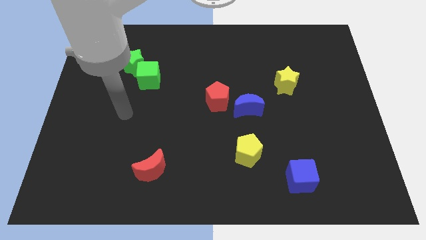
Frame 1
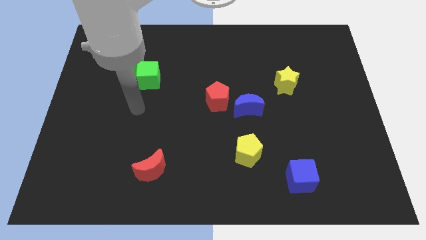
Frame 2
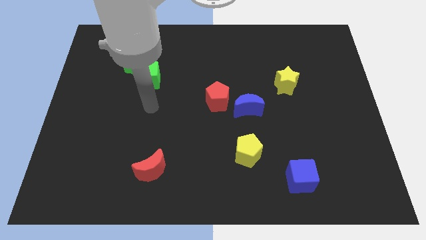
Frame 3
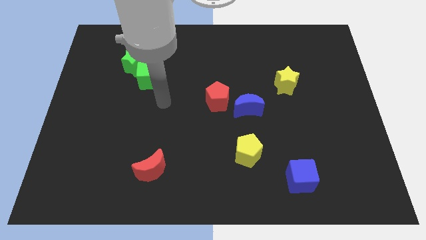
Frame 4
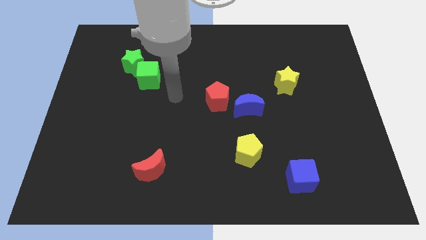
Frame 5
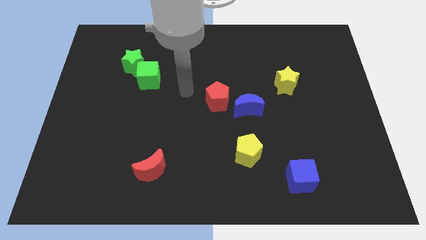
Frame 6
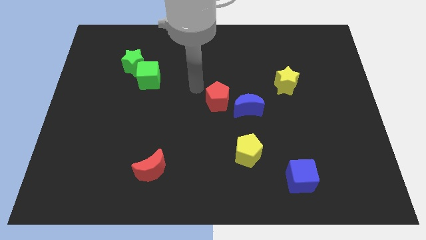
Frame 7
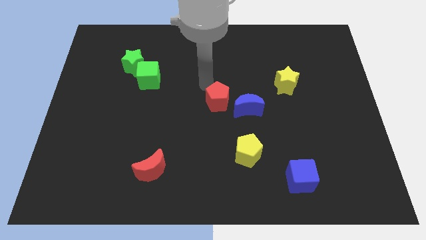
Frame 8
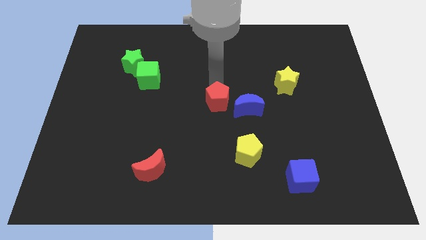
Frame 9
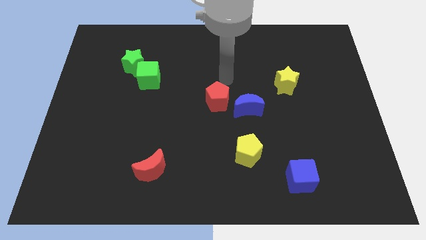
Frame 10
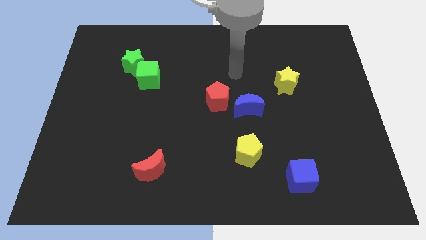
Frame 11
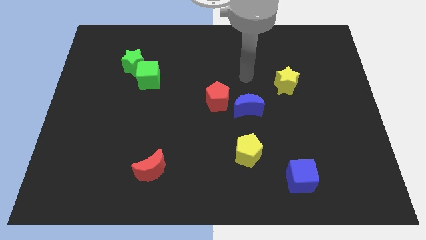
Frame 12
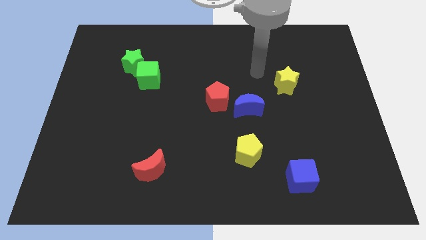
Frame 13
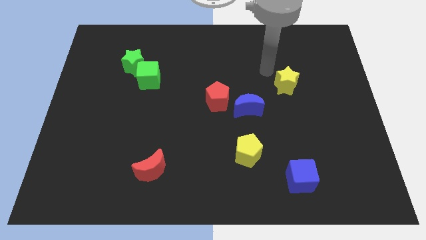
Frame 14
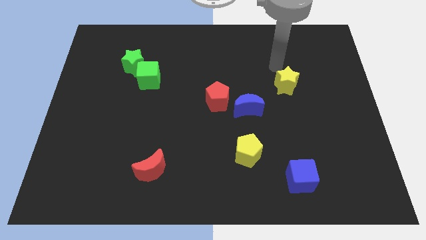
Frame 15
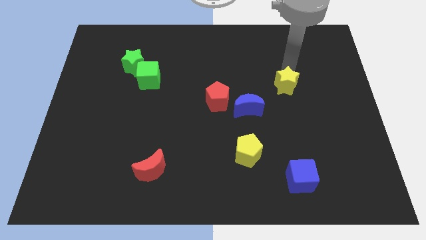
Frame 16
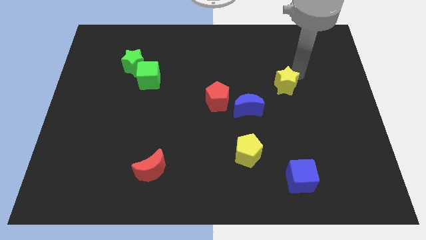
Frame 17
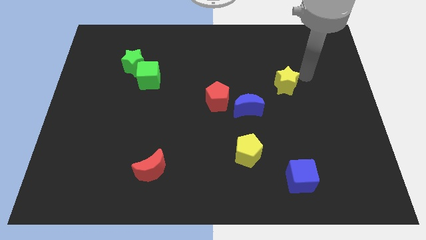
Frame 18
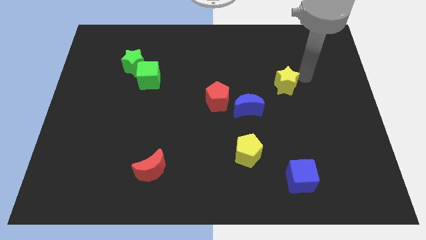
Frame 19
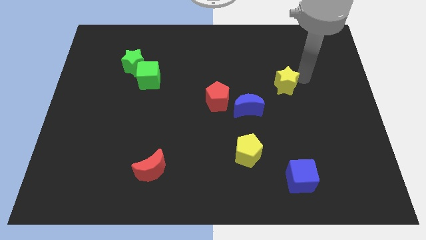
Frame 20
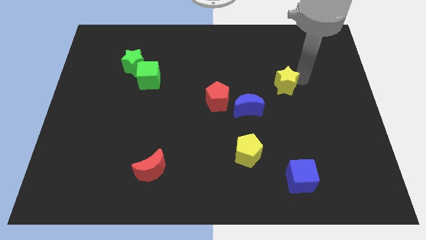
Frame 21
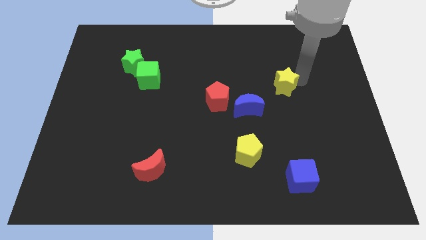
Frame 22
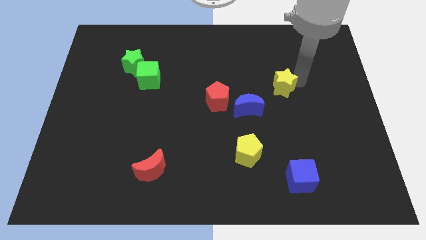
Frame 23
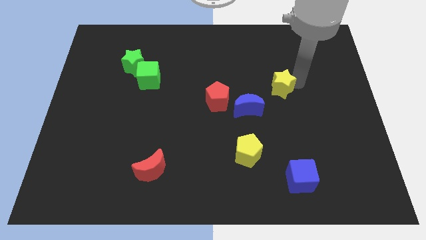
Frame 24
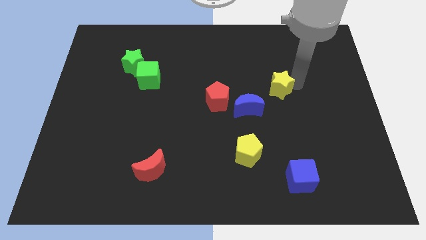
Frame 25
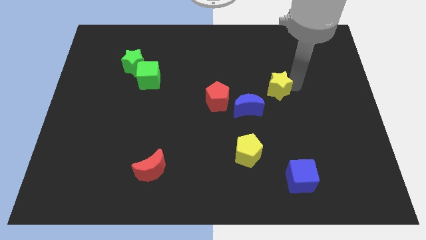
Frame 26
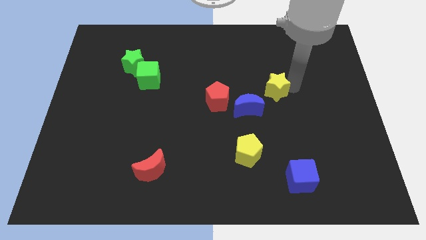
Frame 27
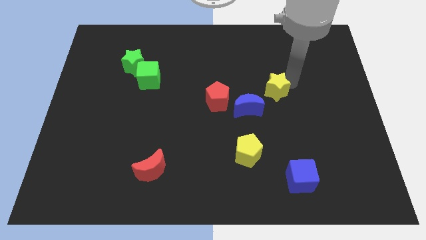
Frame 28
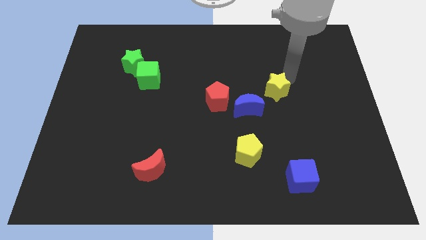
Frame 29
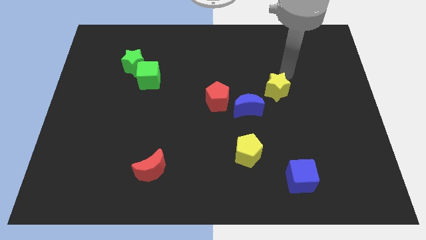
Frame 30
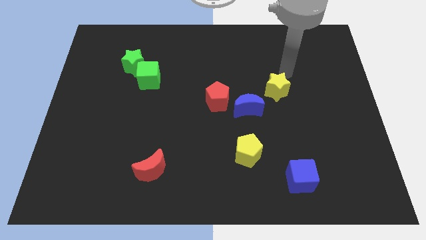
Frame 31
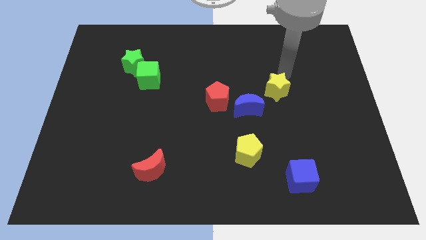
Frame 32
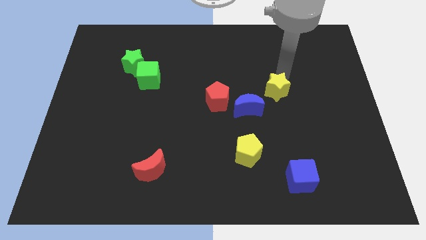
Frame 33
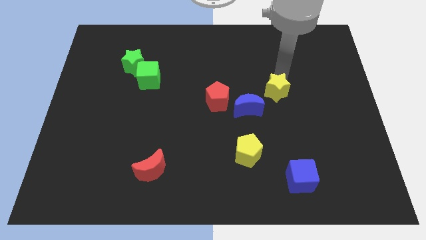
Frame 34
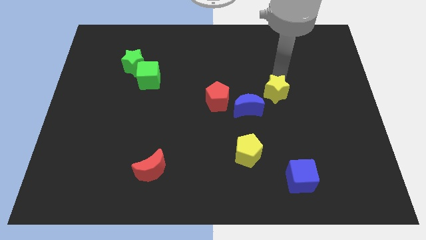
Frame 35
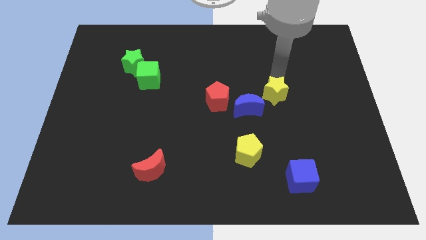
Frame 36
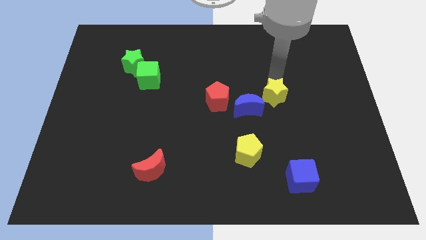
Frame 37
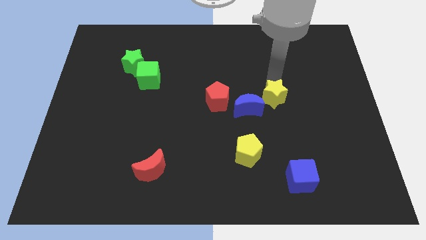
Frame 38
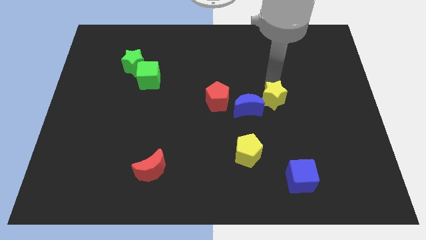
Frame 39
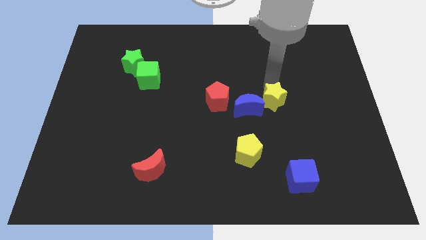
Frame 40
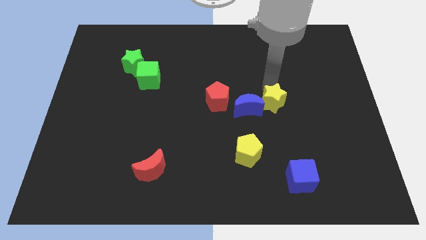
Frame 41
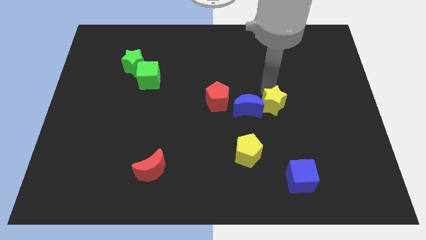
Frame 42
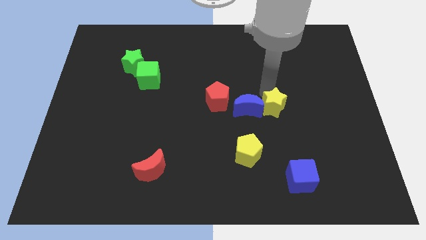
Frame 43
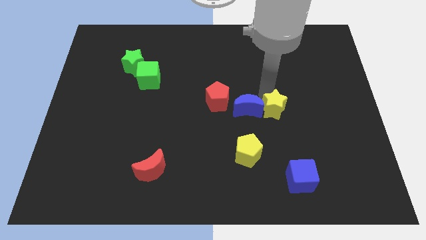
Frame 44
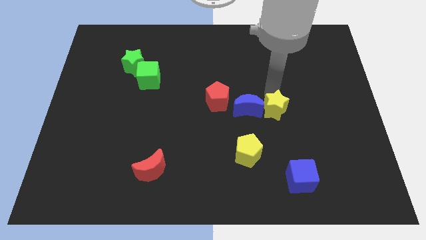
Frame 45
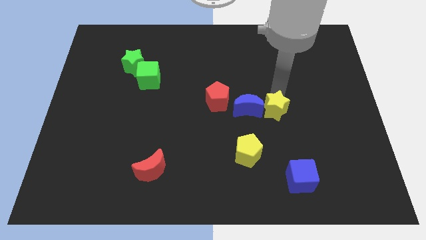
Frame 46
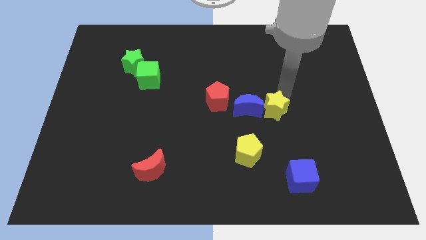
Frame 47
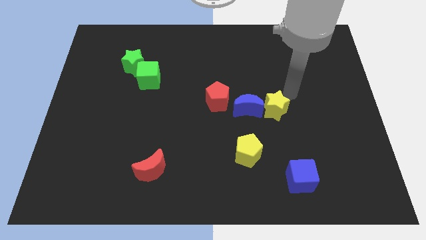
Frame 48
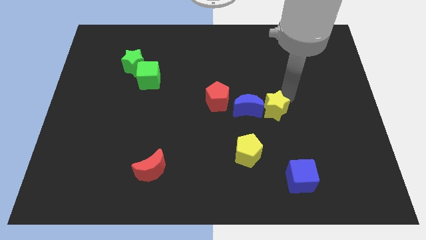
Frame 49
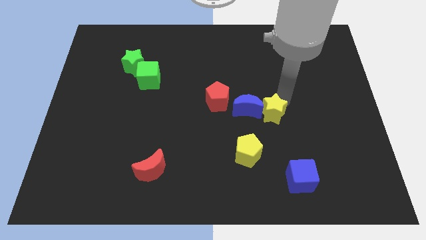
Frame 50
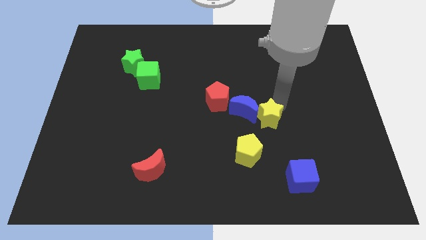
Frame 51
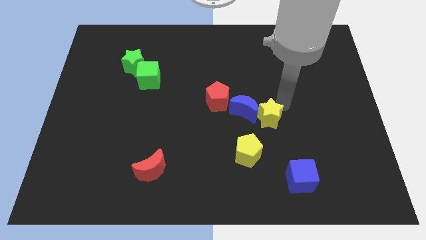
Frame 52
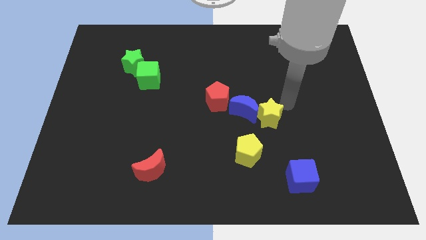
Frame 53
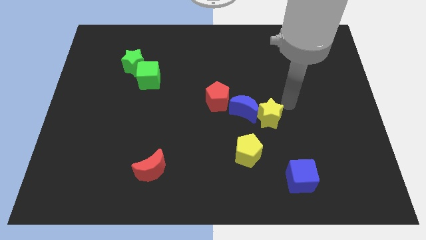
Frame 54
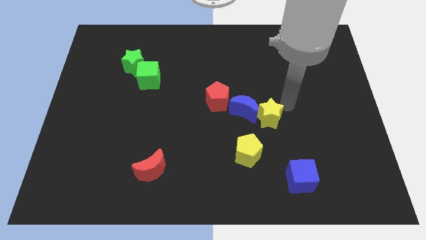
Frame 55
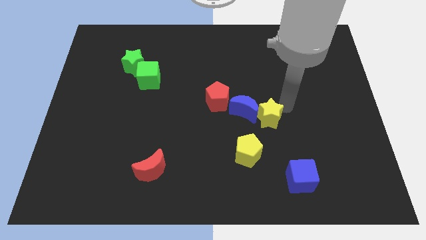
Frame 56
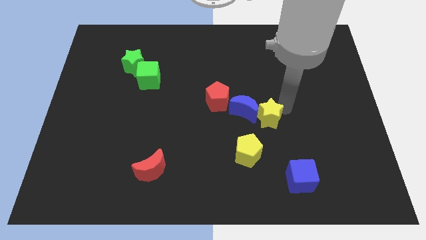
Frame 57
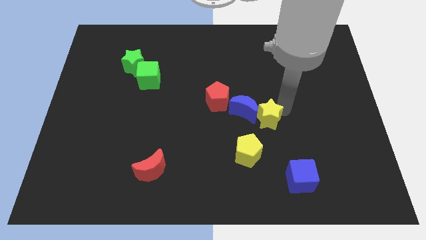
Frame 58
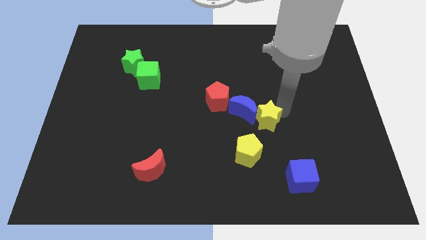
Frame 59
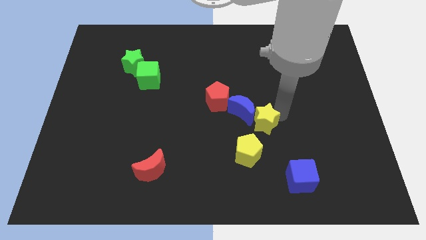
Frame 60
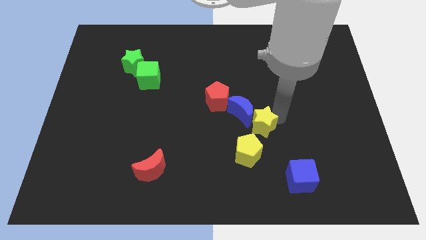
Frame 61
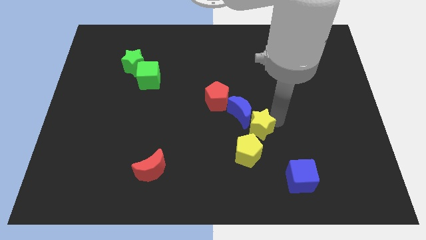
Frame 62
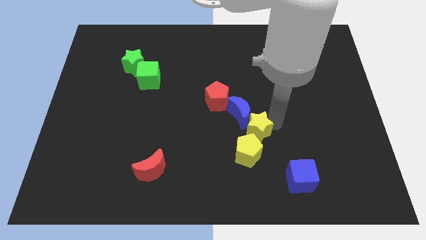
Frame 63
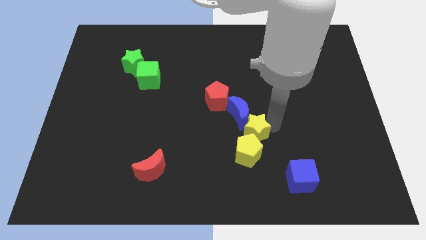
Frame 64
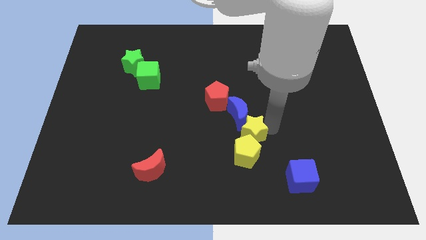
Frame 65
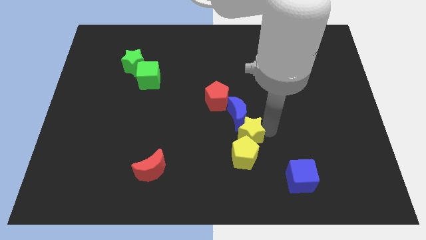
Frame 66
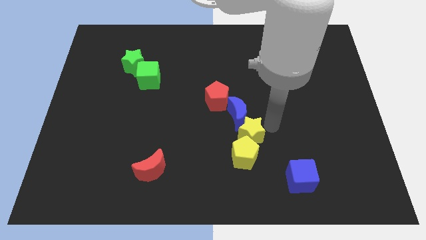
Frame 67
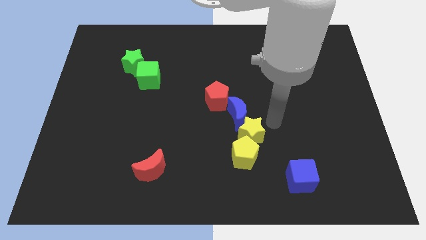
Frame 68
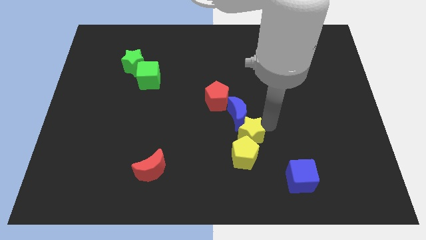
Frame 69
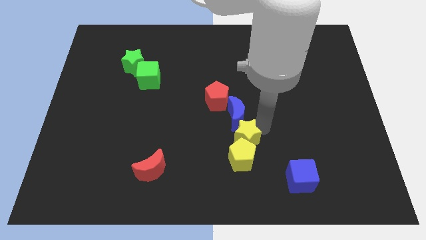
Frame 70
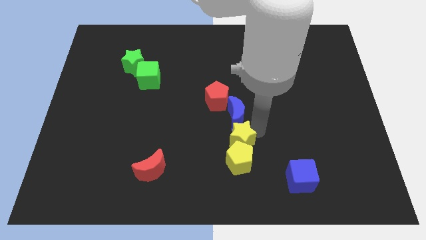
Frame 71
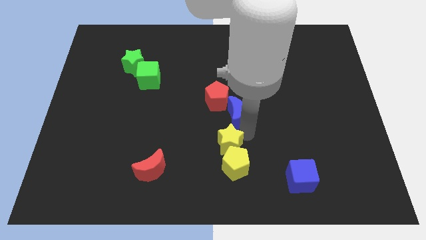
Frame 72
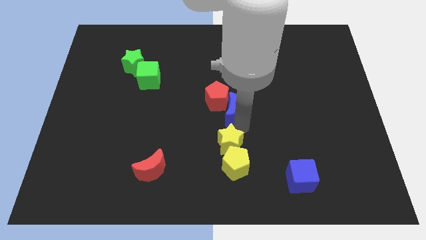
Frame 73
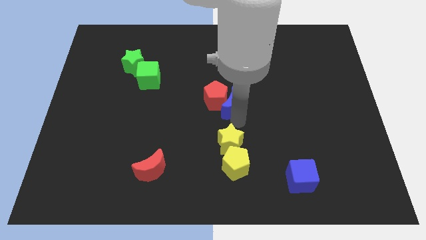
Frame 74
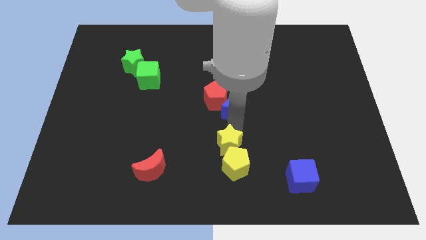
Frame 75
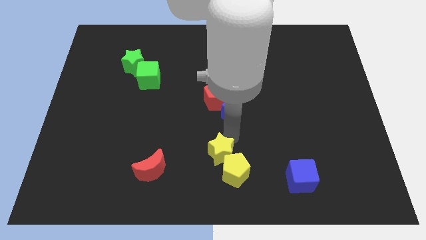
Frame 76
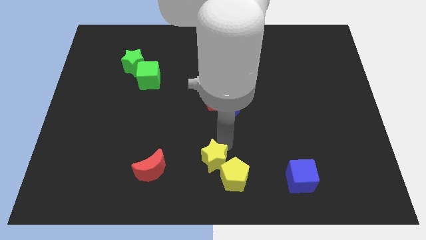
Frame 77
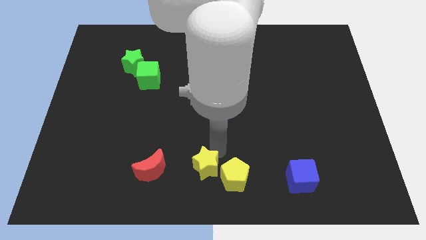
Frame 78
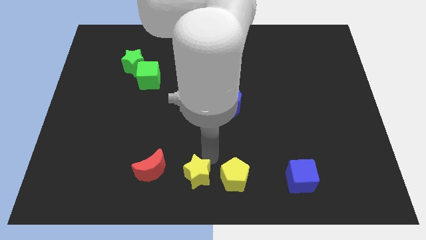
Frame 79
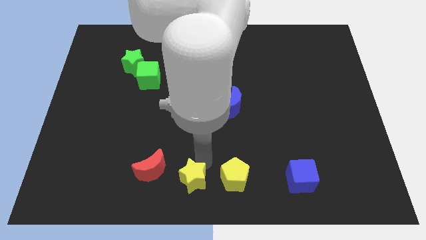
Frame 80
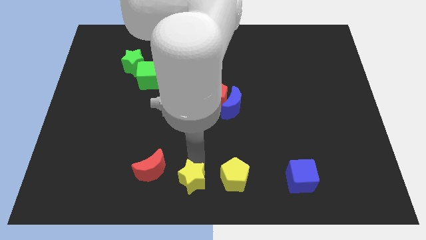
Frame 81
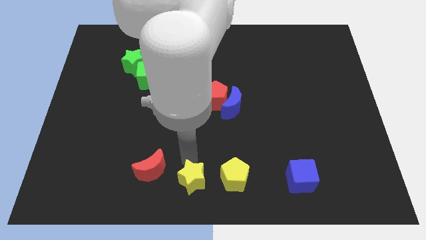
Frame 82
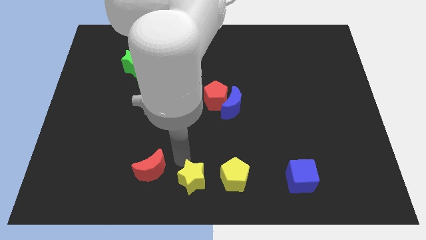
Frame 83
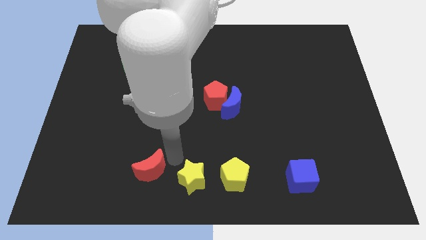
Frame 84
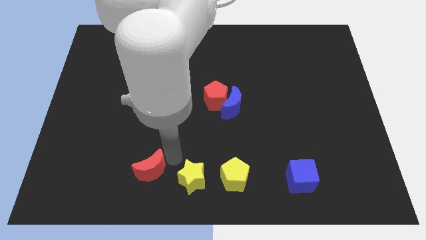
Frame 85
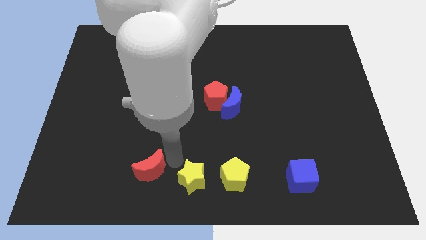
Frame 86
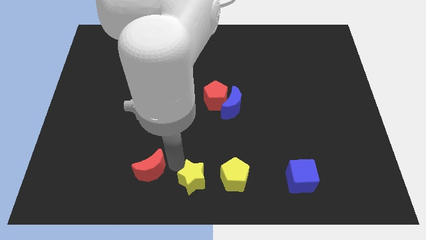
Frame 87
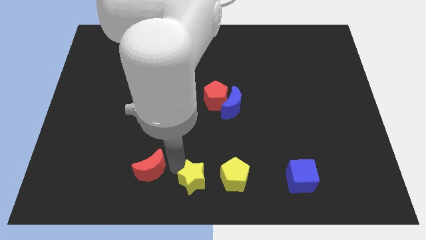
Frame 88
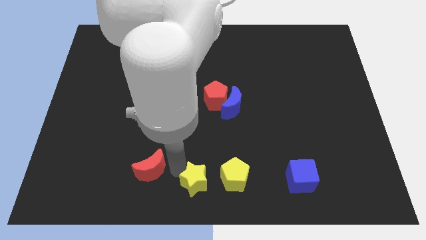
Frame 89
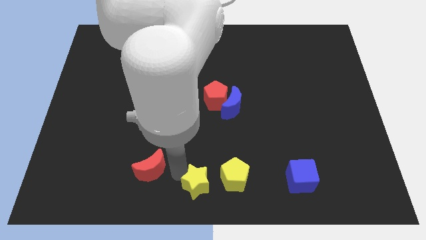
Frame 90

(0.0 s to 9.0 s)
put the yellow star to the bottom left side of the yellow pentagon
